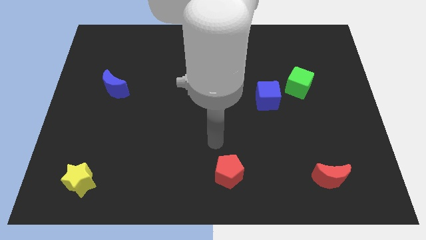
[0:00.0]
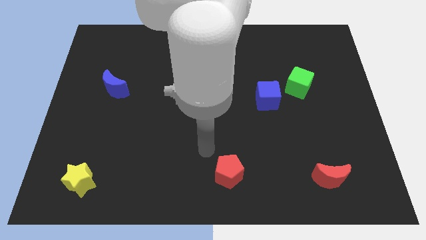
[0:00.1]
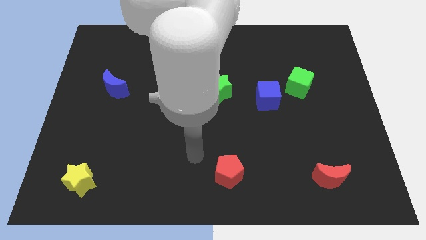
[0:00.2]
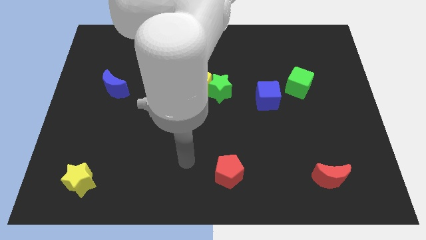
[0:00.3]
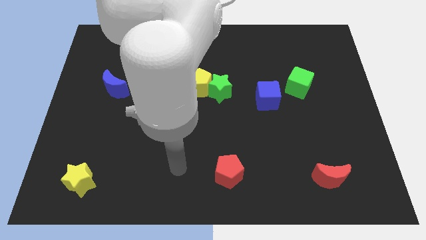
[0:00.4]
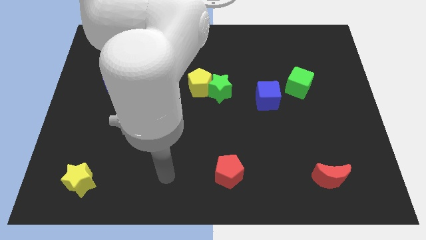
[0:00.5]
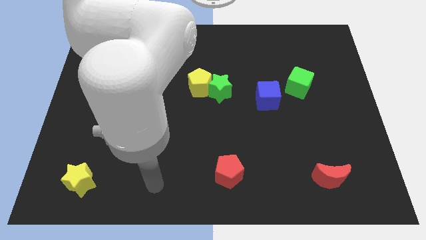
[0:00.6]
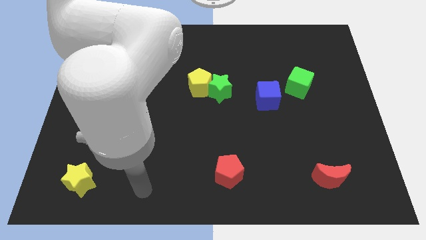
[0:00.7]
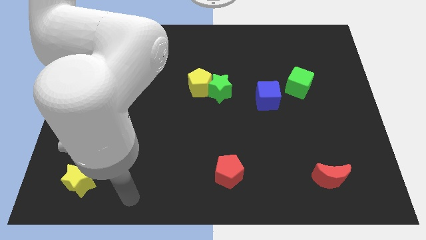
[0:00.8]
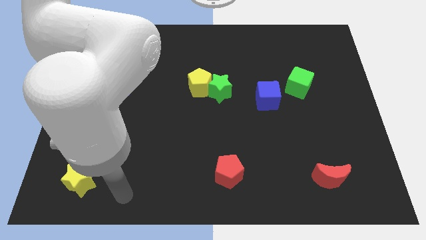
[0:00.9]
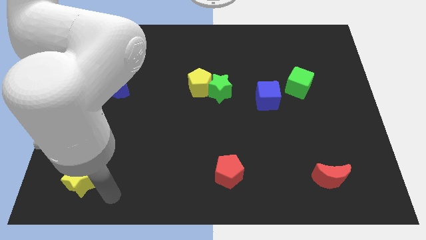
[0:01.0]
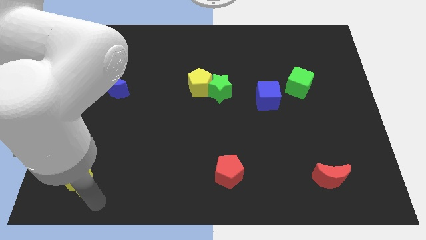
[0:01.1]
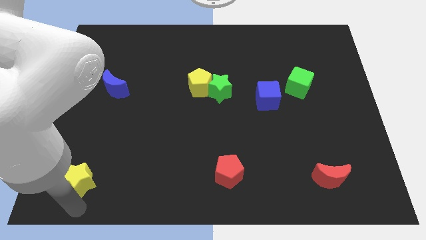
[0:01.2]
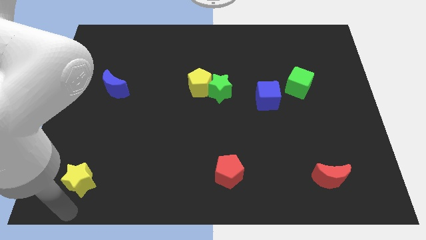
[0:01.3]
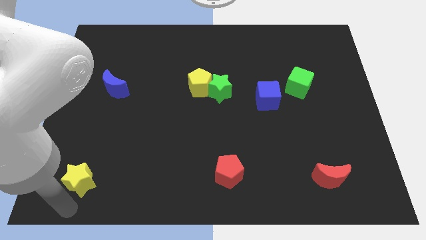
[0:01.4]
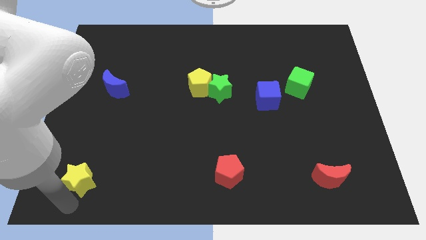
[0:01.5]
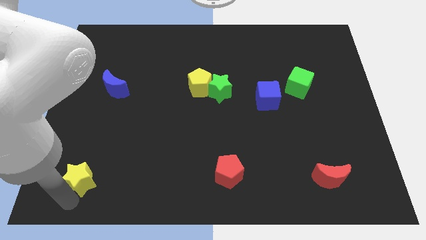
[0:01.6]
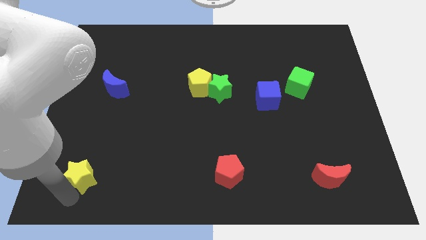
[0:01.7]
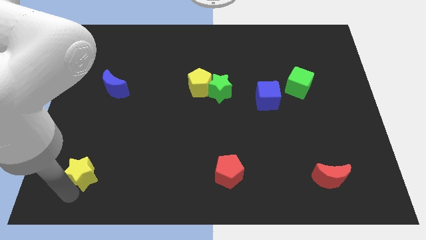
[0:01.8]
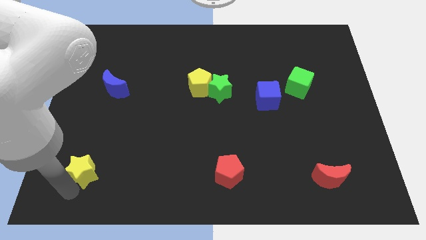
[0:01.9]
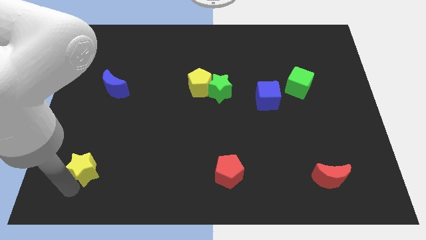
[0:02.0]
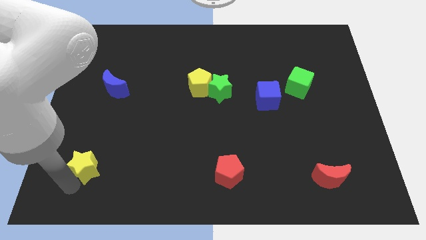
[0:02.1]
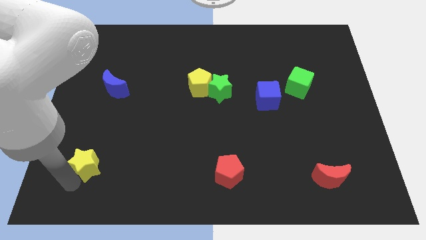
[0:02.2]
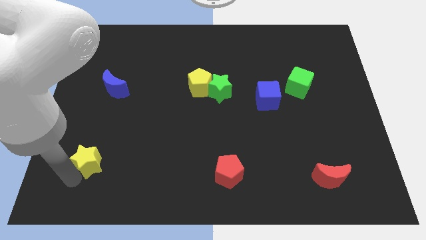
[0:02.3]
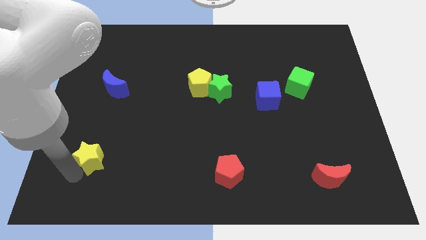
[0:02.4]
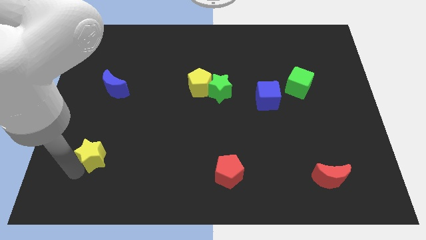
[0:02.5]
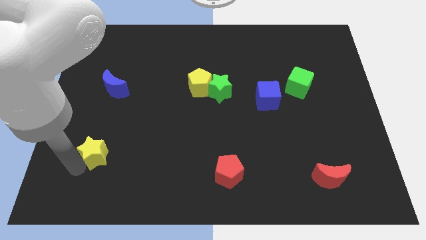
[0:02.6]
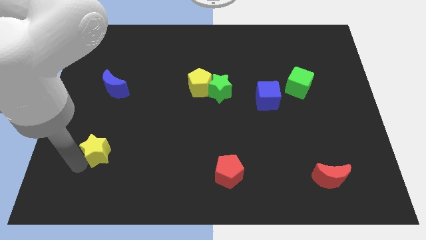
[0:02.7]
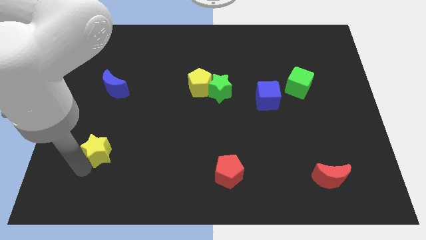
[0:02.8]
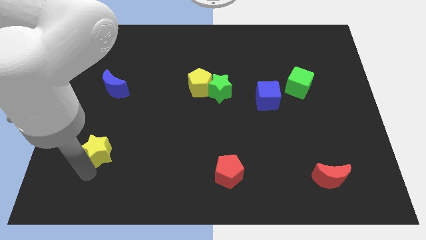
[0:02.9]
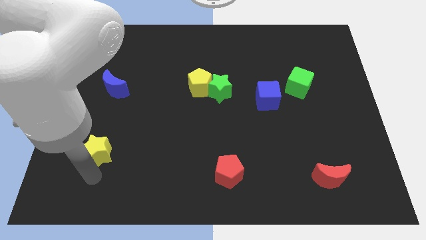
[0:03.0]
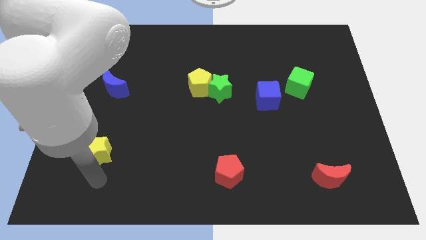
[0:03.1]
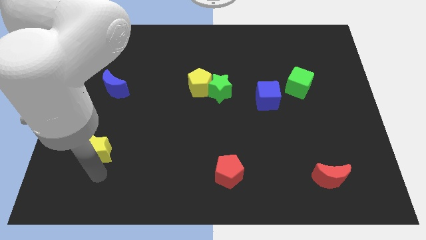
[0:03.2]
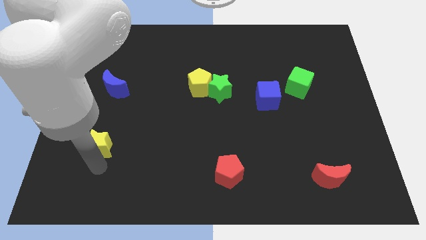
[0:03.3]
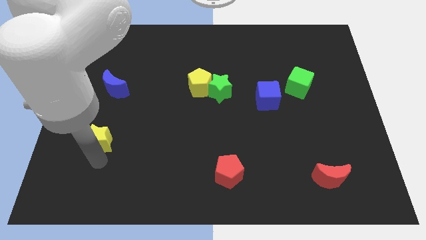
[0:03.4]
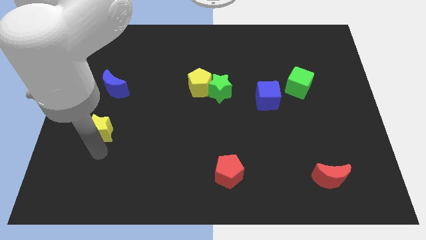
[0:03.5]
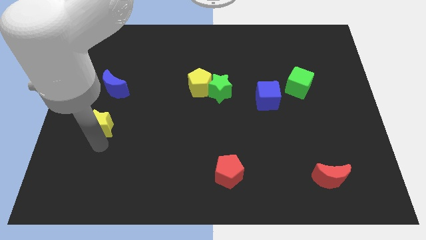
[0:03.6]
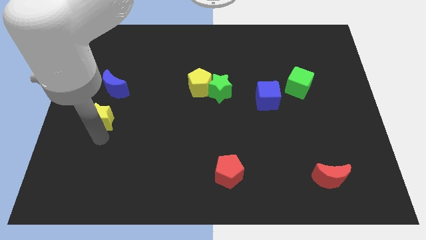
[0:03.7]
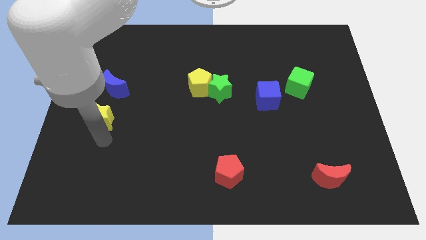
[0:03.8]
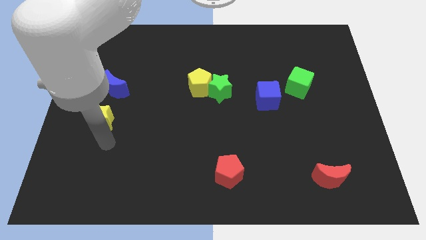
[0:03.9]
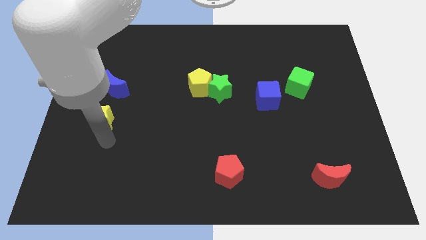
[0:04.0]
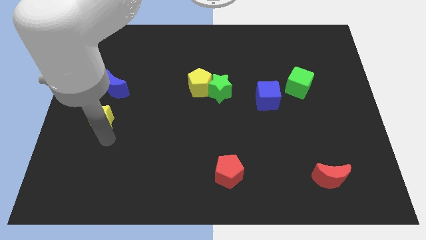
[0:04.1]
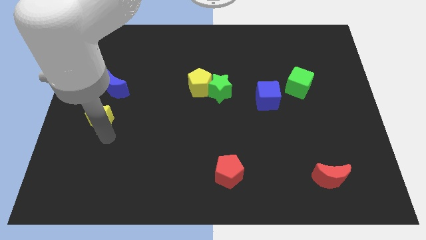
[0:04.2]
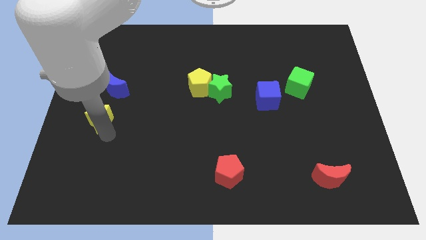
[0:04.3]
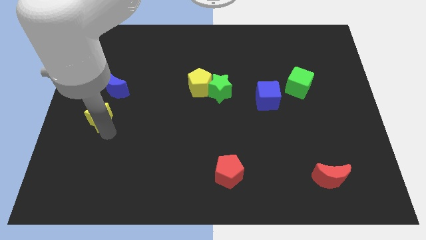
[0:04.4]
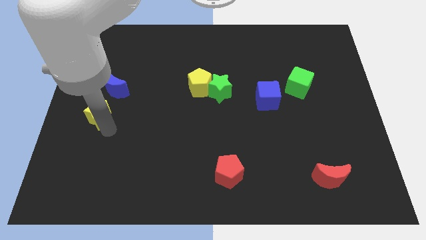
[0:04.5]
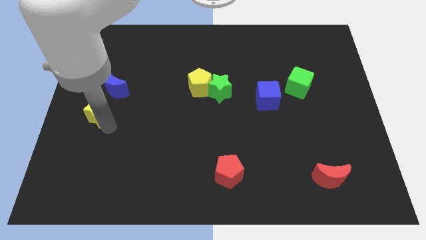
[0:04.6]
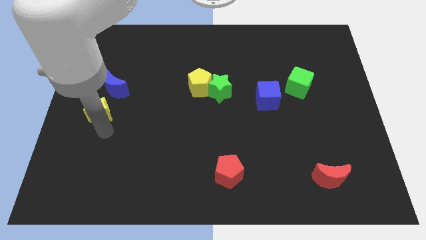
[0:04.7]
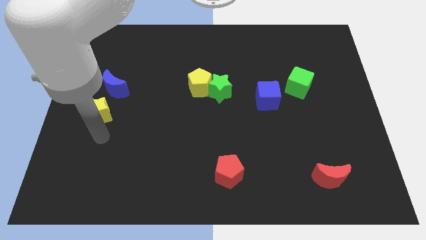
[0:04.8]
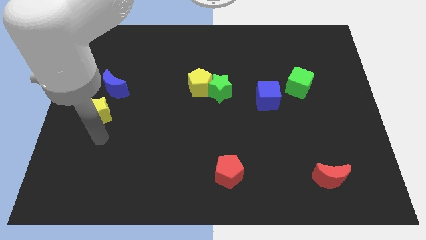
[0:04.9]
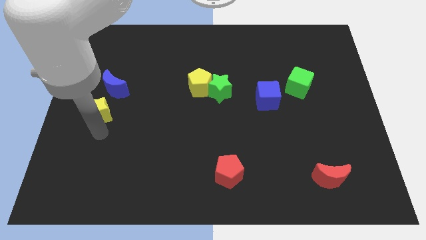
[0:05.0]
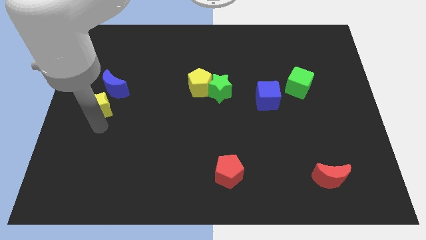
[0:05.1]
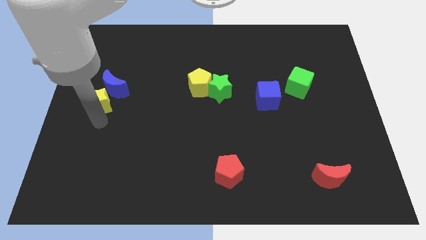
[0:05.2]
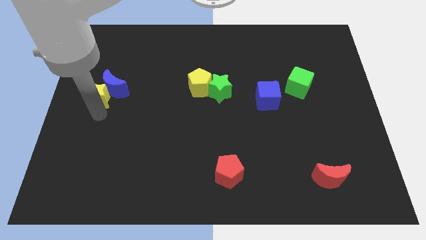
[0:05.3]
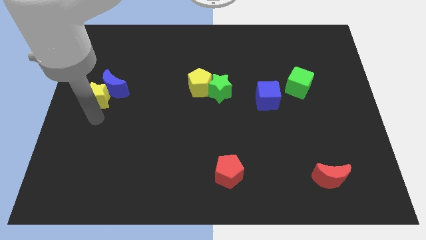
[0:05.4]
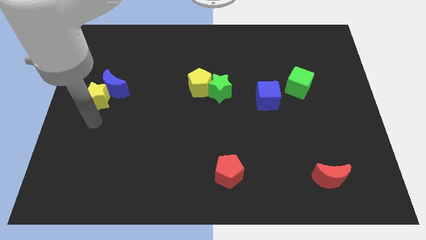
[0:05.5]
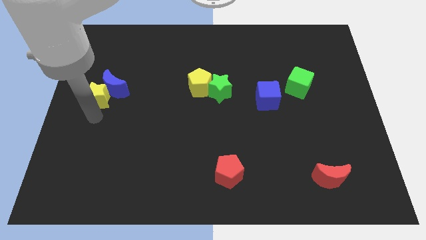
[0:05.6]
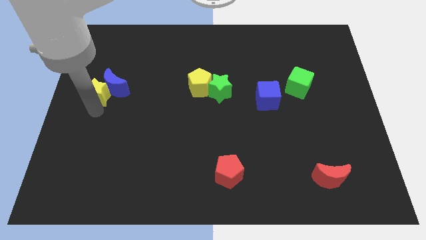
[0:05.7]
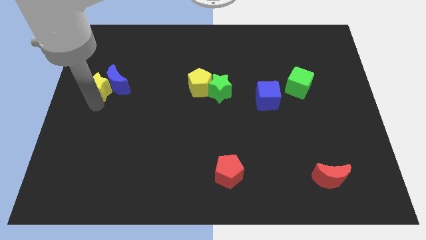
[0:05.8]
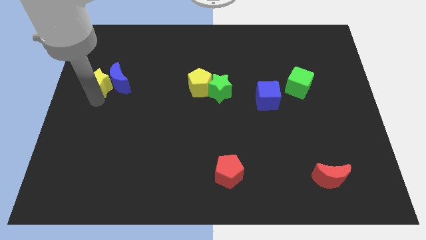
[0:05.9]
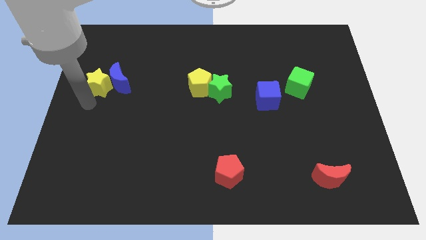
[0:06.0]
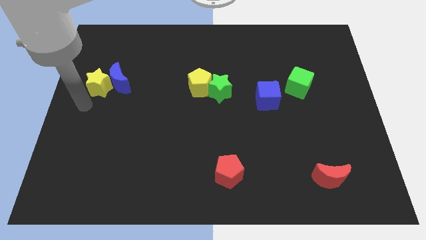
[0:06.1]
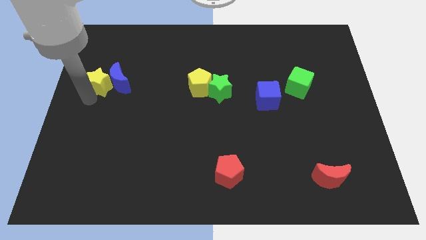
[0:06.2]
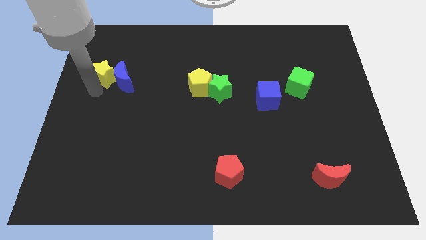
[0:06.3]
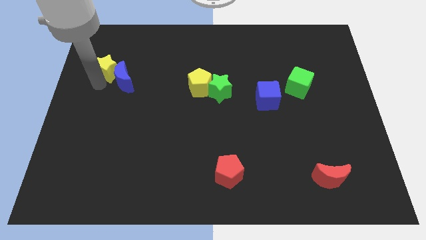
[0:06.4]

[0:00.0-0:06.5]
push the yellow star to the top of the blue moon

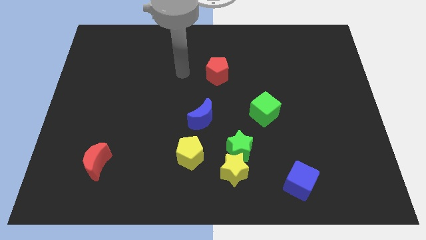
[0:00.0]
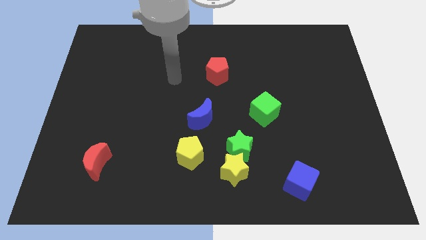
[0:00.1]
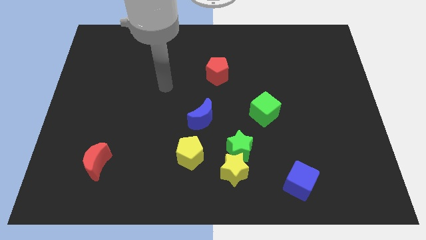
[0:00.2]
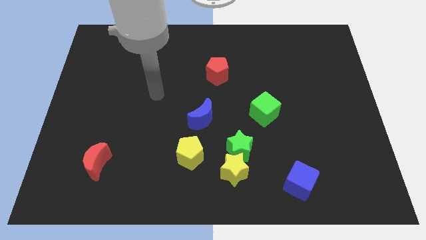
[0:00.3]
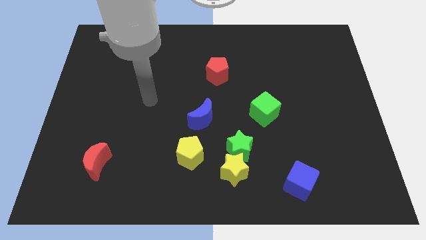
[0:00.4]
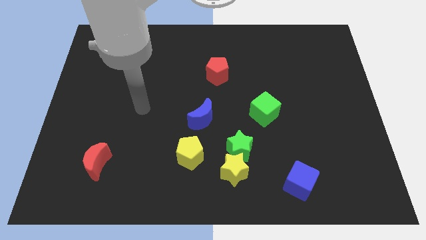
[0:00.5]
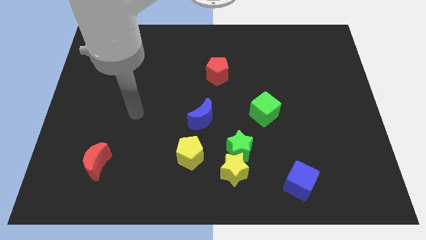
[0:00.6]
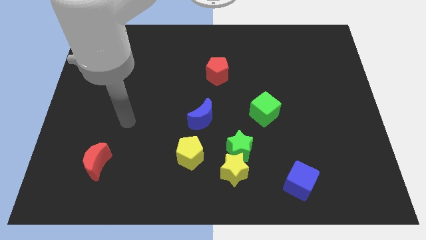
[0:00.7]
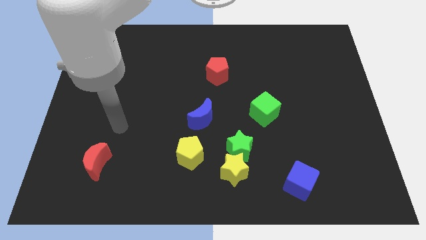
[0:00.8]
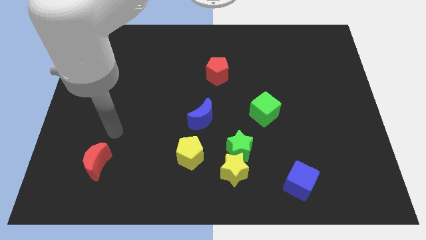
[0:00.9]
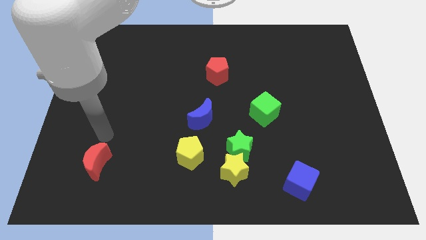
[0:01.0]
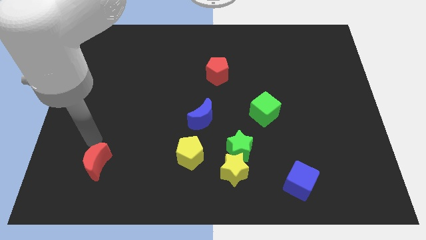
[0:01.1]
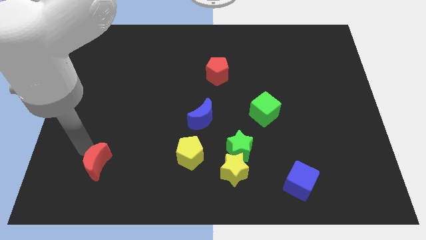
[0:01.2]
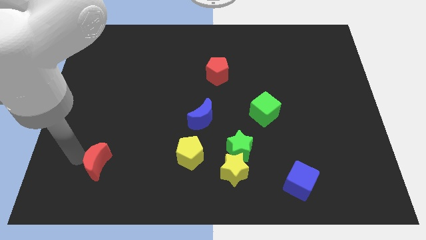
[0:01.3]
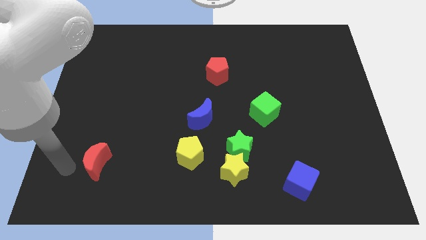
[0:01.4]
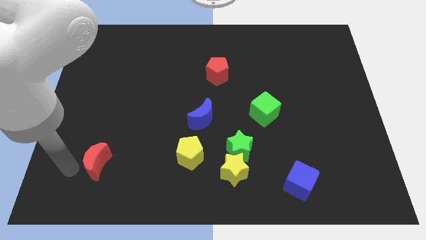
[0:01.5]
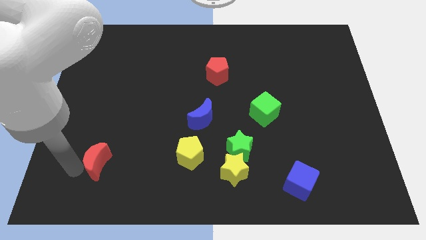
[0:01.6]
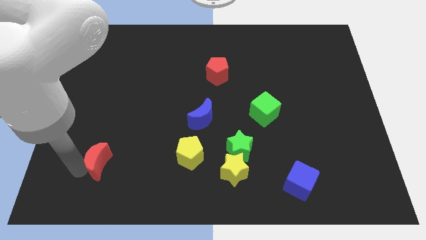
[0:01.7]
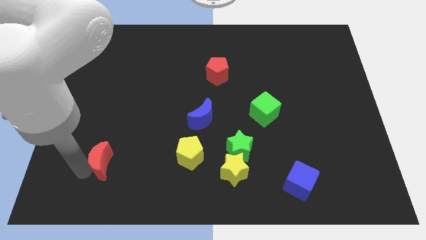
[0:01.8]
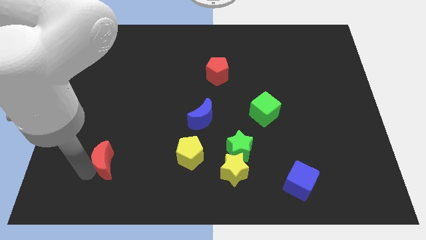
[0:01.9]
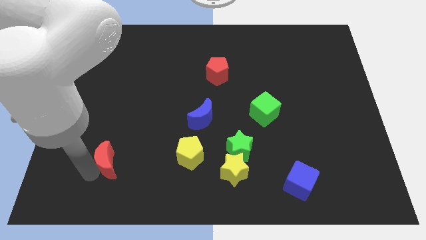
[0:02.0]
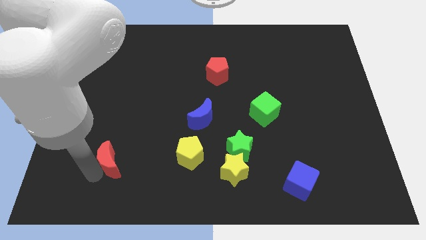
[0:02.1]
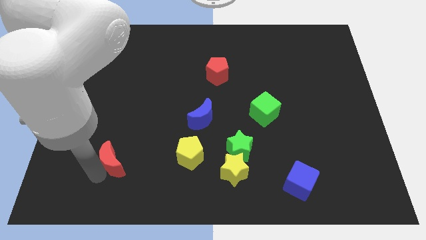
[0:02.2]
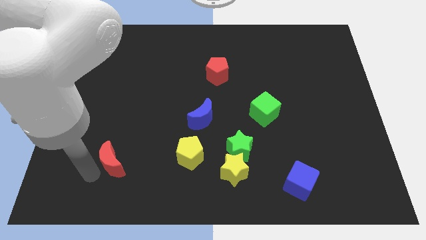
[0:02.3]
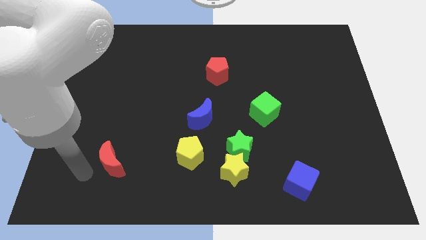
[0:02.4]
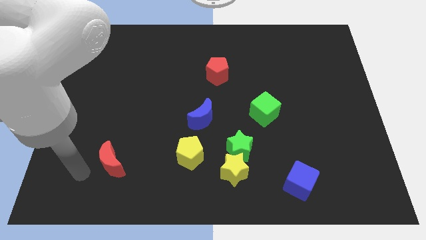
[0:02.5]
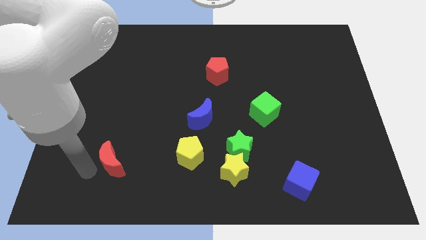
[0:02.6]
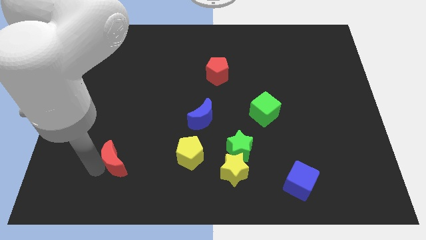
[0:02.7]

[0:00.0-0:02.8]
move the red moon just left of the yellow pentagon
